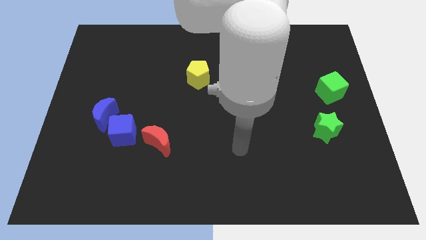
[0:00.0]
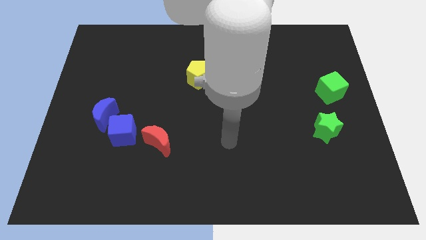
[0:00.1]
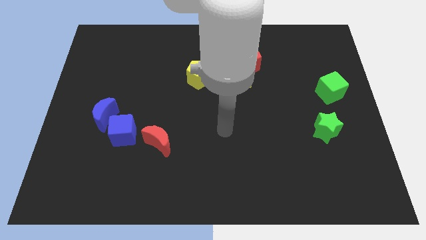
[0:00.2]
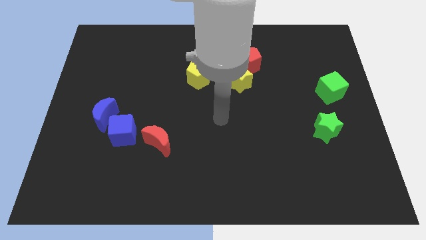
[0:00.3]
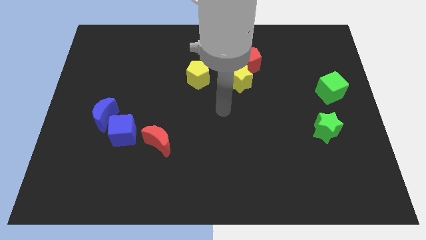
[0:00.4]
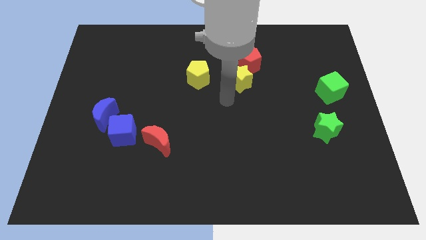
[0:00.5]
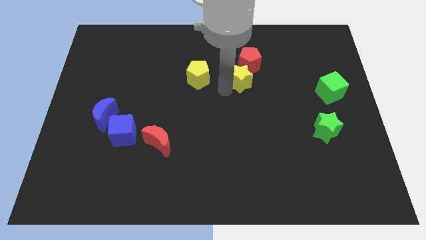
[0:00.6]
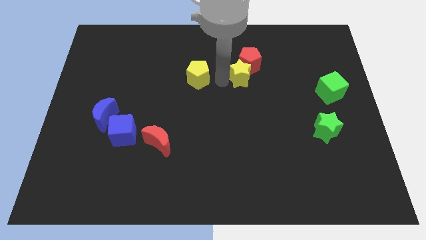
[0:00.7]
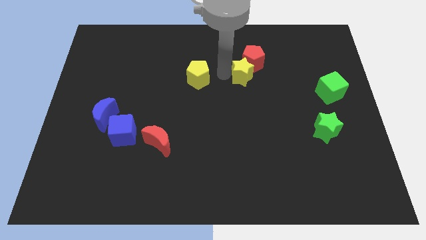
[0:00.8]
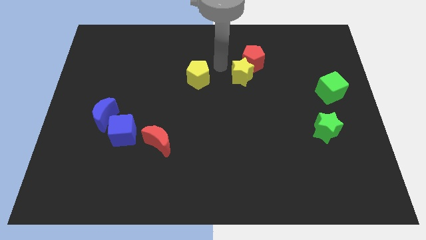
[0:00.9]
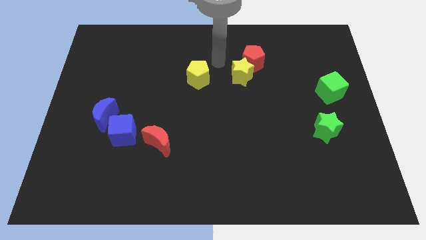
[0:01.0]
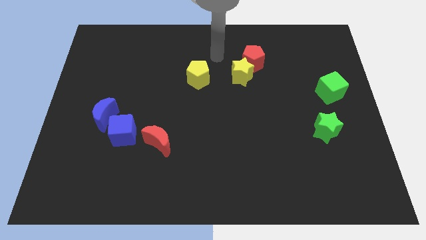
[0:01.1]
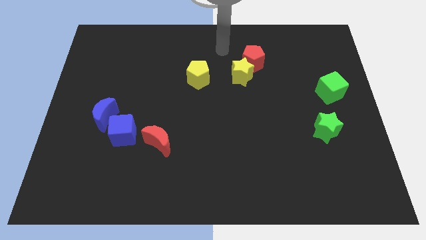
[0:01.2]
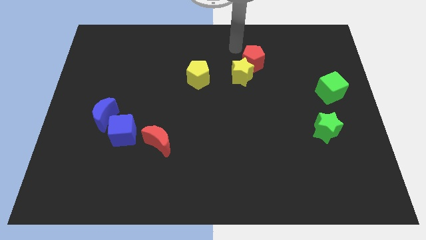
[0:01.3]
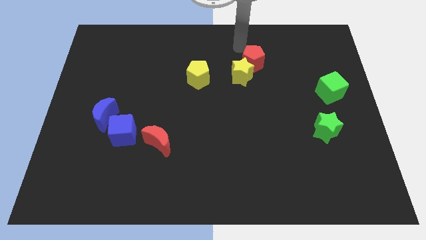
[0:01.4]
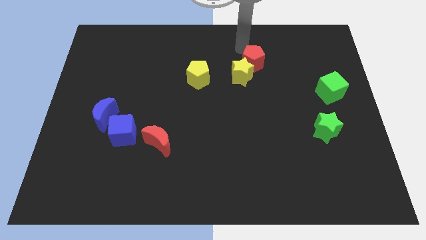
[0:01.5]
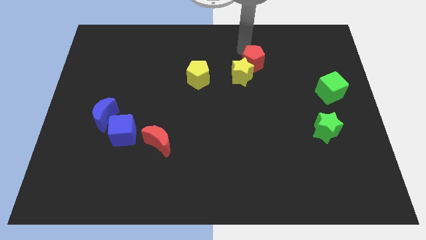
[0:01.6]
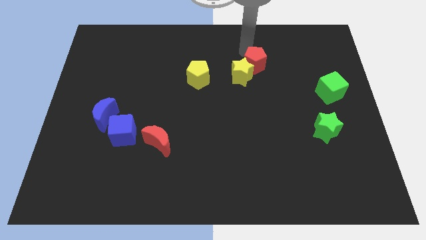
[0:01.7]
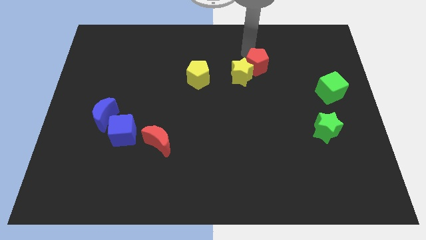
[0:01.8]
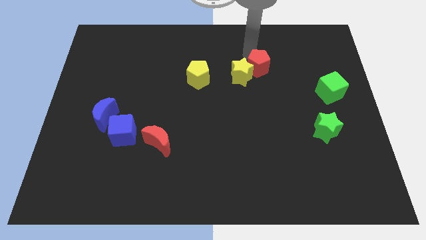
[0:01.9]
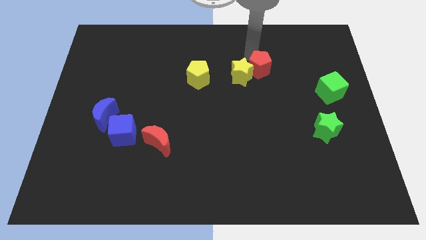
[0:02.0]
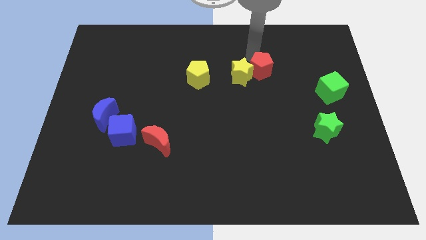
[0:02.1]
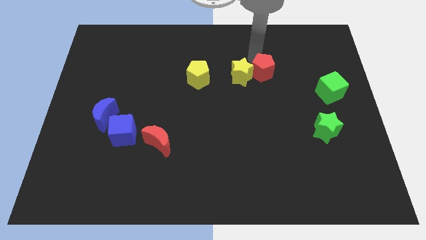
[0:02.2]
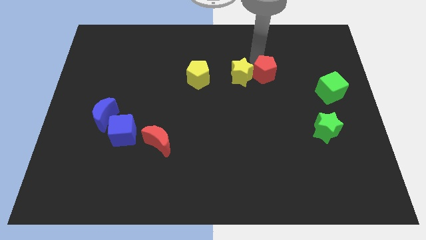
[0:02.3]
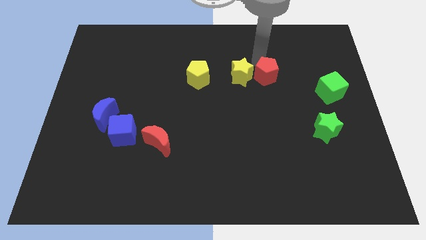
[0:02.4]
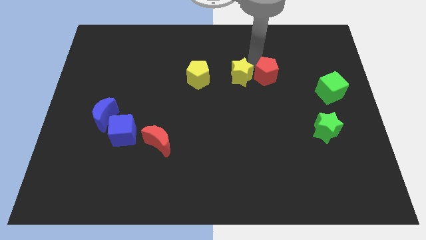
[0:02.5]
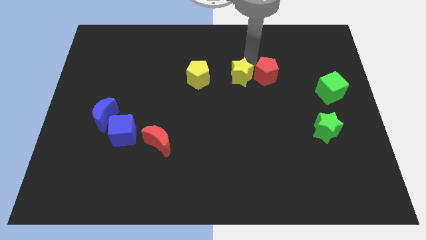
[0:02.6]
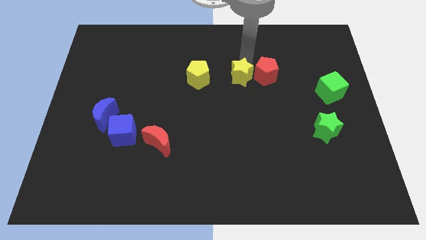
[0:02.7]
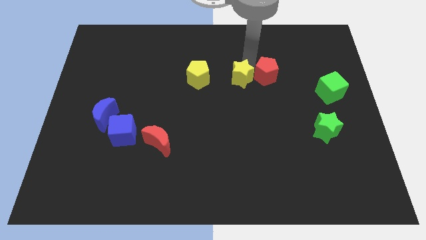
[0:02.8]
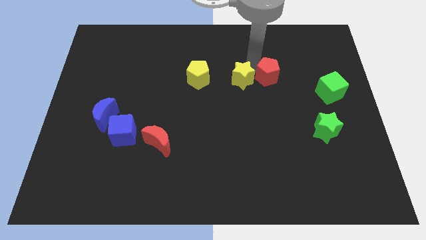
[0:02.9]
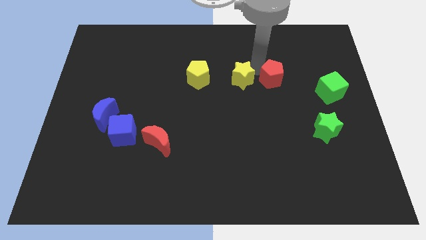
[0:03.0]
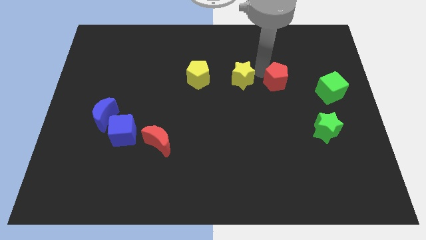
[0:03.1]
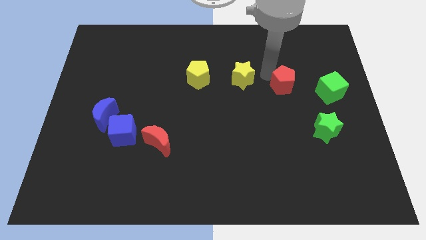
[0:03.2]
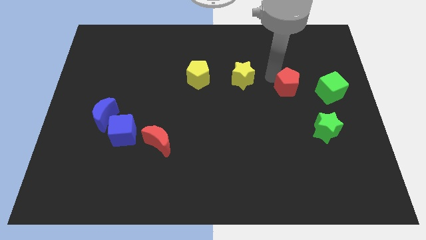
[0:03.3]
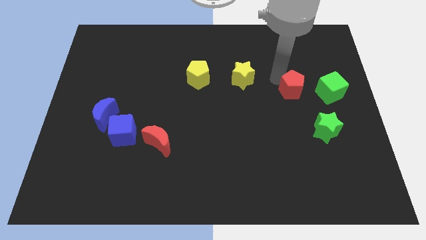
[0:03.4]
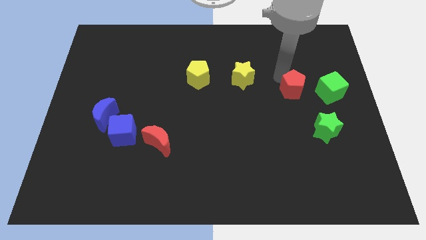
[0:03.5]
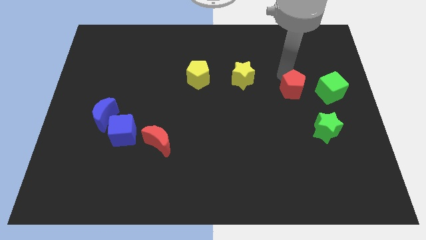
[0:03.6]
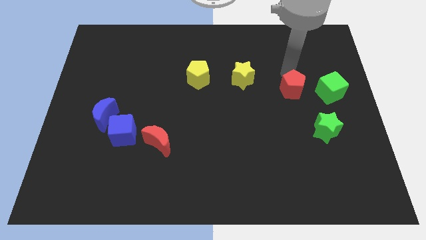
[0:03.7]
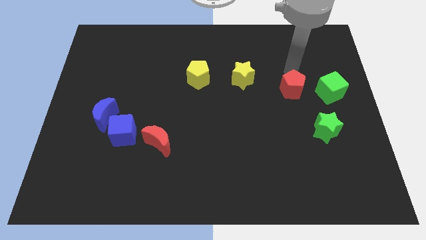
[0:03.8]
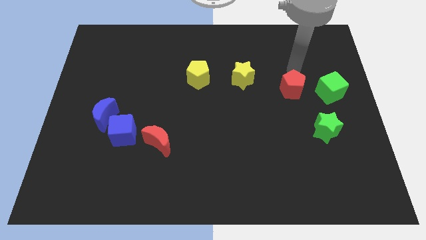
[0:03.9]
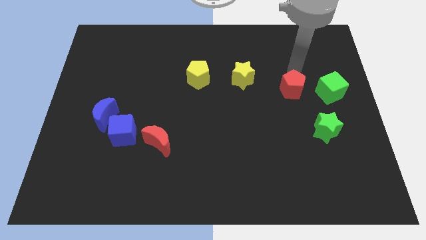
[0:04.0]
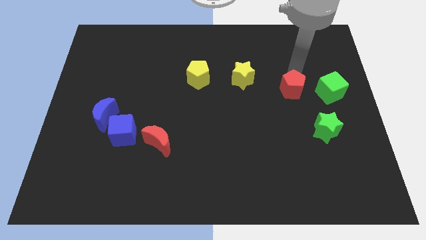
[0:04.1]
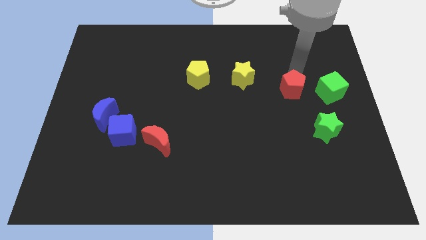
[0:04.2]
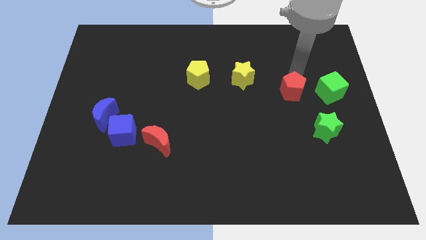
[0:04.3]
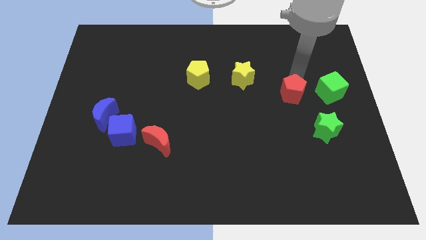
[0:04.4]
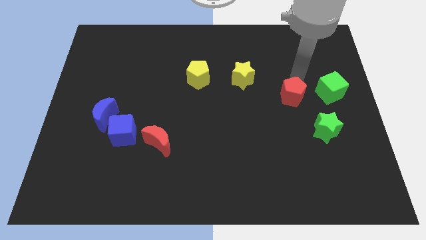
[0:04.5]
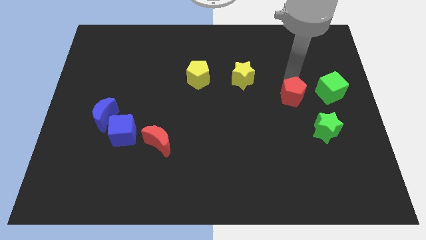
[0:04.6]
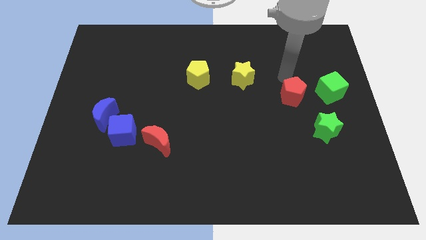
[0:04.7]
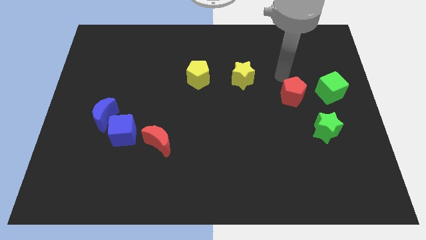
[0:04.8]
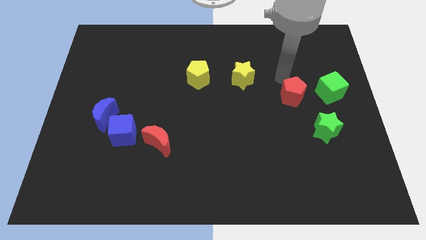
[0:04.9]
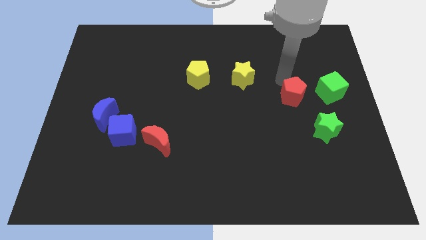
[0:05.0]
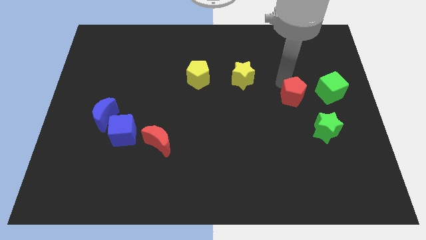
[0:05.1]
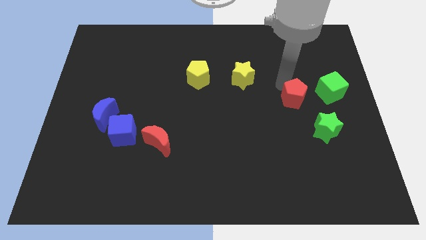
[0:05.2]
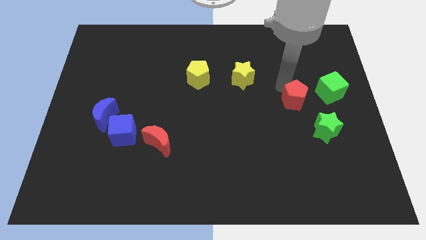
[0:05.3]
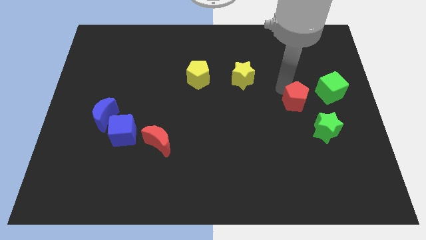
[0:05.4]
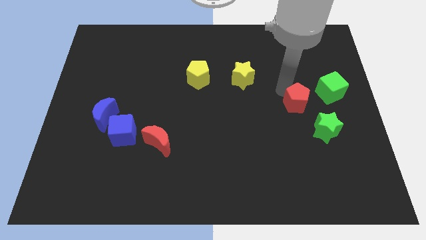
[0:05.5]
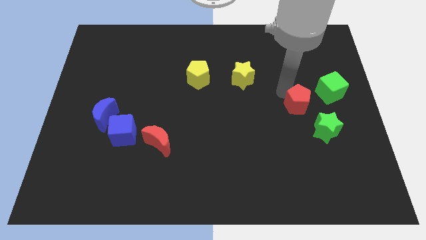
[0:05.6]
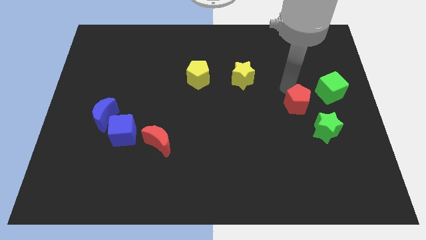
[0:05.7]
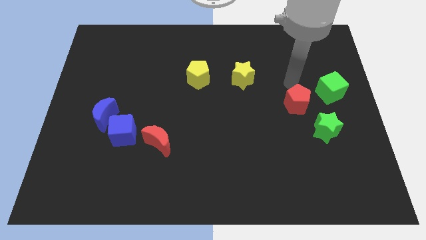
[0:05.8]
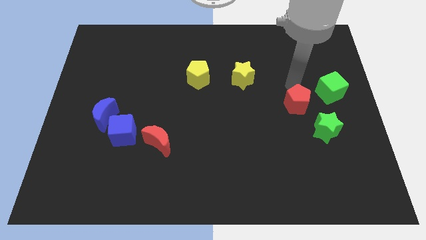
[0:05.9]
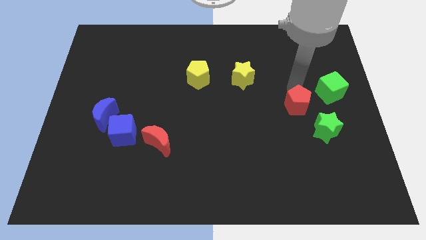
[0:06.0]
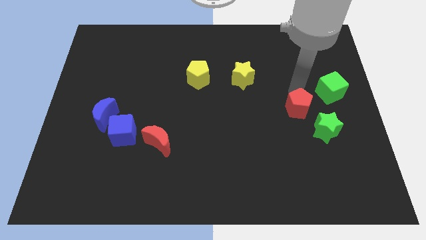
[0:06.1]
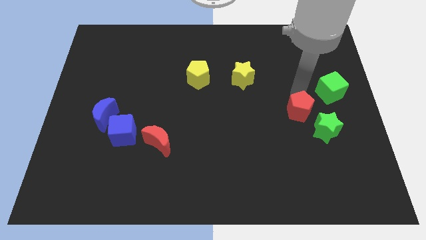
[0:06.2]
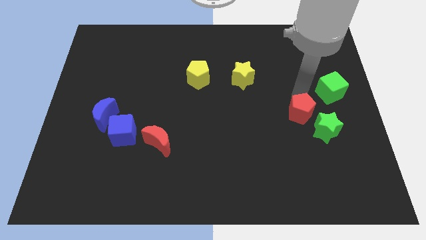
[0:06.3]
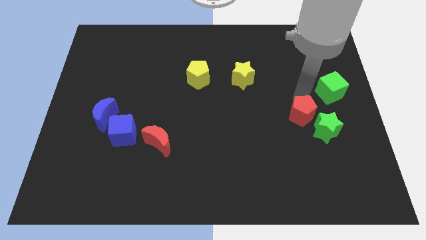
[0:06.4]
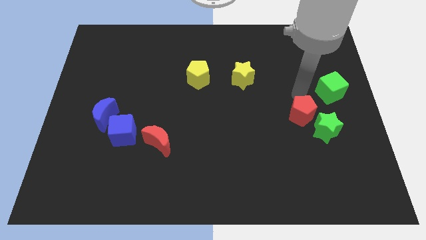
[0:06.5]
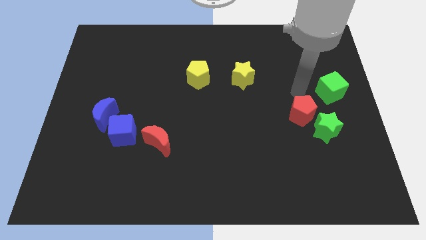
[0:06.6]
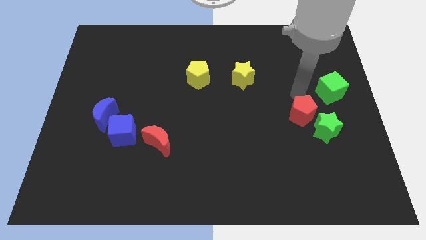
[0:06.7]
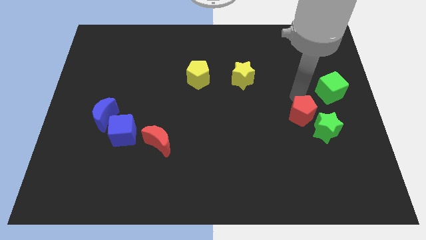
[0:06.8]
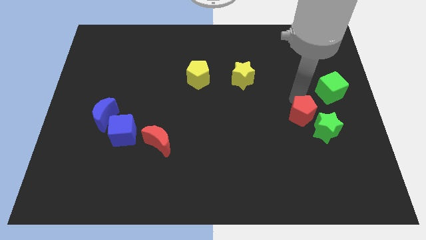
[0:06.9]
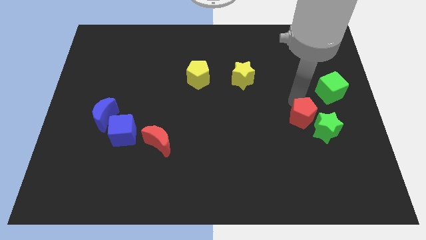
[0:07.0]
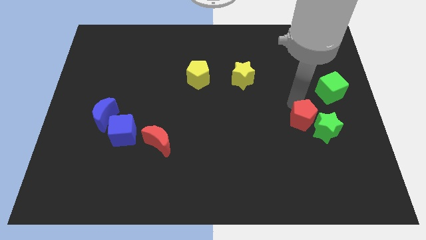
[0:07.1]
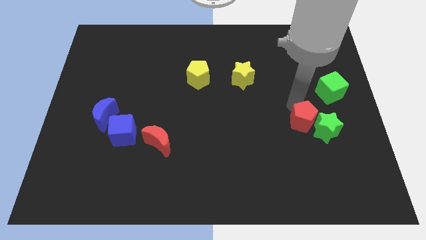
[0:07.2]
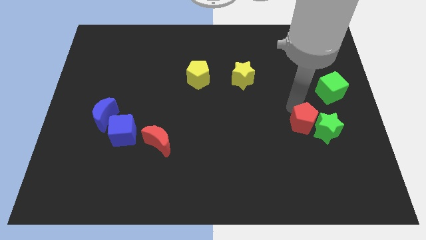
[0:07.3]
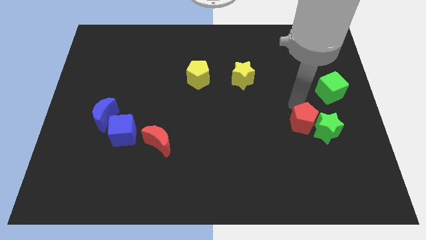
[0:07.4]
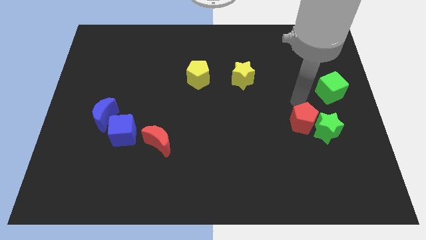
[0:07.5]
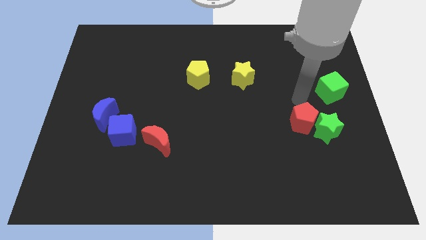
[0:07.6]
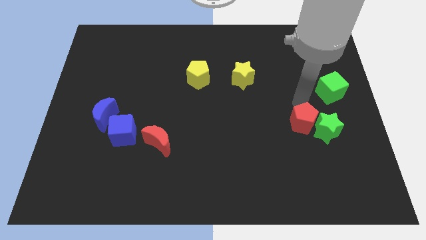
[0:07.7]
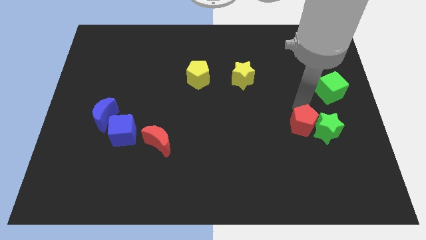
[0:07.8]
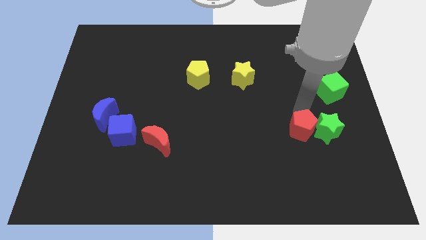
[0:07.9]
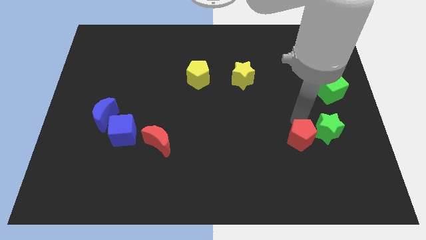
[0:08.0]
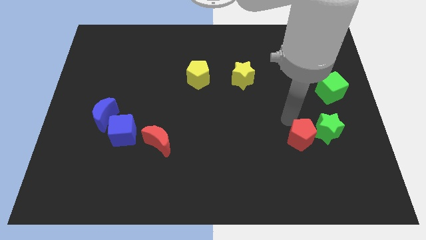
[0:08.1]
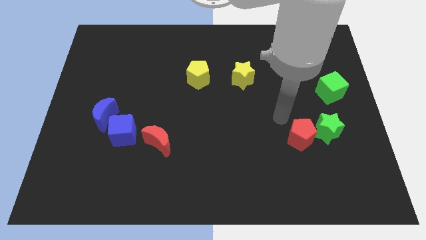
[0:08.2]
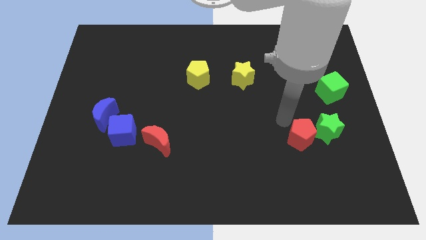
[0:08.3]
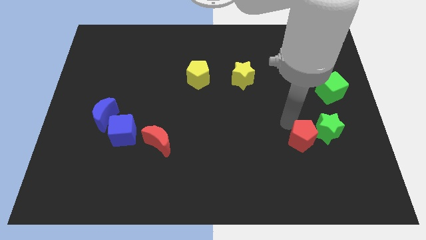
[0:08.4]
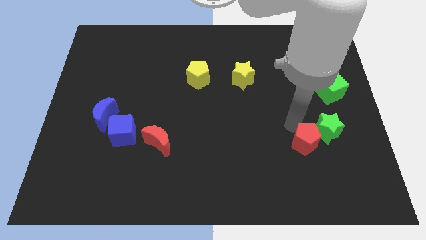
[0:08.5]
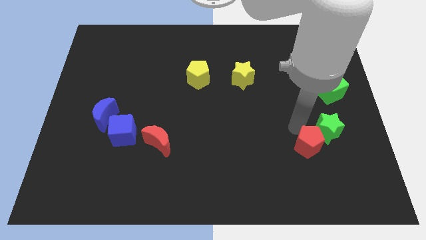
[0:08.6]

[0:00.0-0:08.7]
slide the red pentagon to the bottom side of the green star
